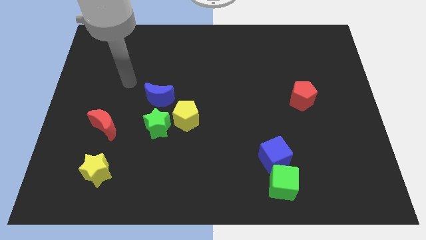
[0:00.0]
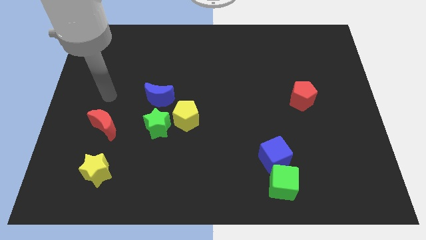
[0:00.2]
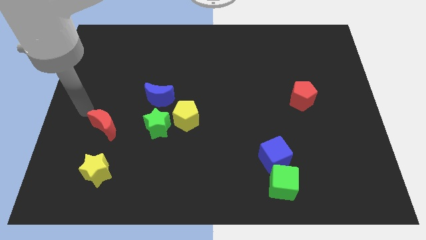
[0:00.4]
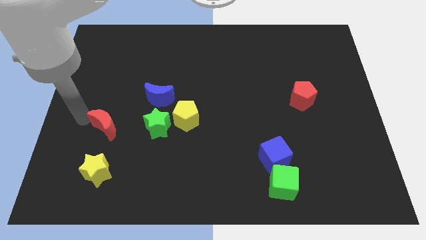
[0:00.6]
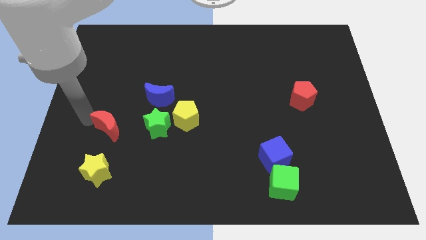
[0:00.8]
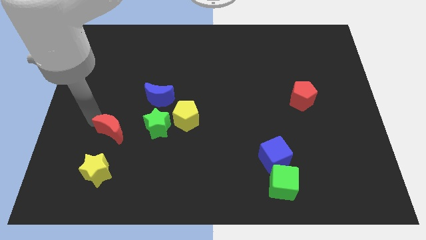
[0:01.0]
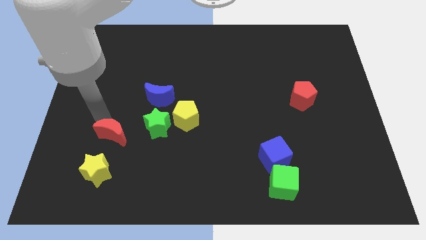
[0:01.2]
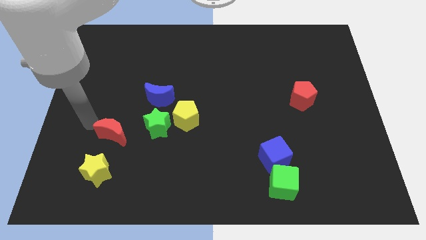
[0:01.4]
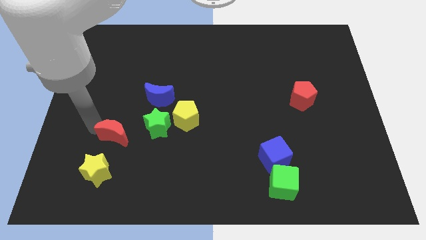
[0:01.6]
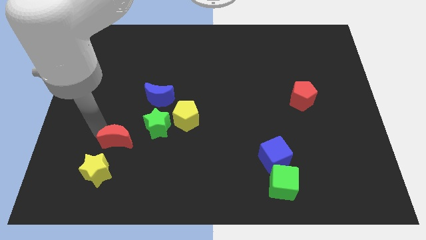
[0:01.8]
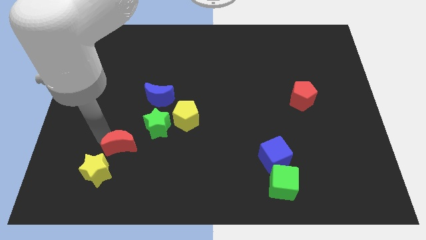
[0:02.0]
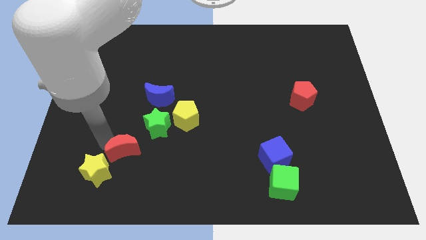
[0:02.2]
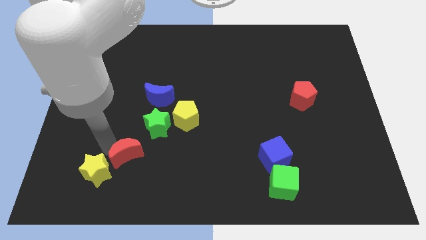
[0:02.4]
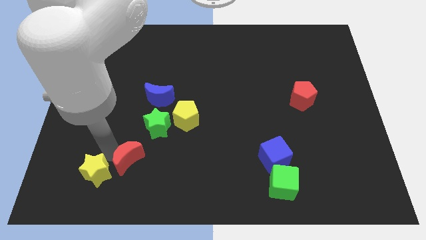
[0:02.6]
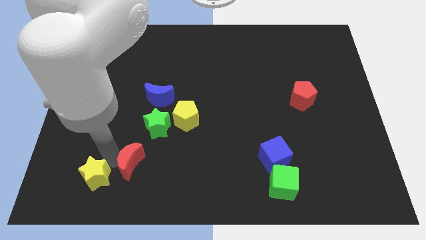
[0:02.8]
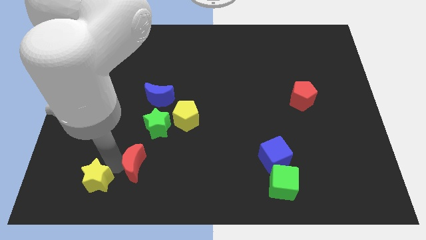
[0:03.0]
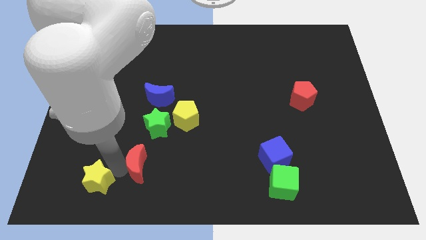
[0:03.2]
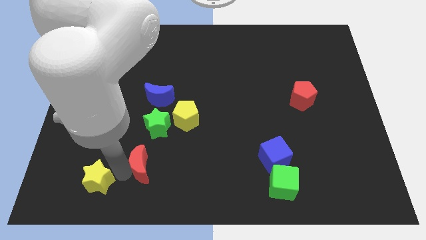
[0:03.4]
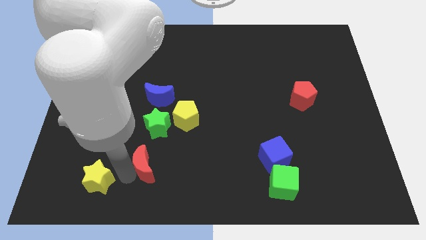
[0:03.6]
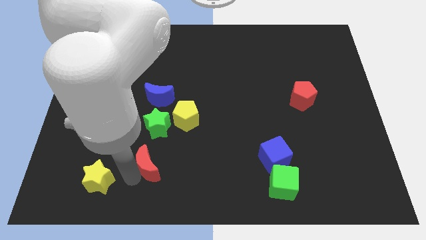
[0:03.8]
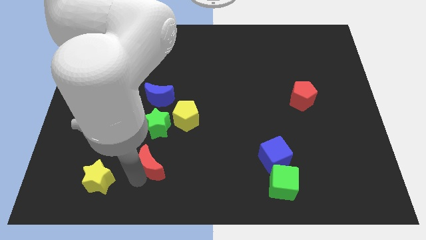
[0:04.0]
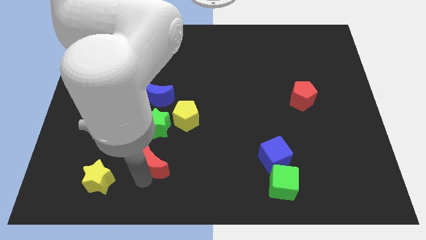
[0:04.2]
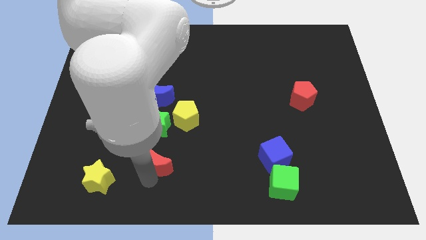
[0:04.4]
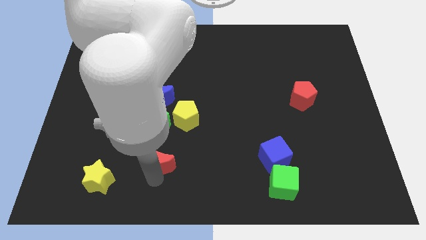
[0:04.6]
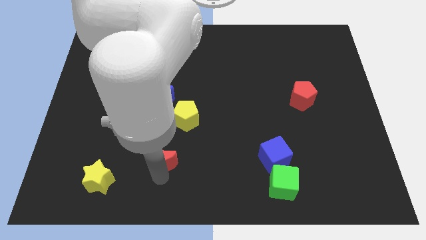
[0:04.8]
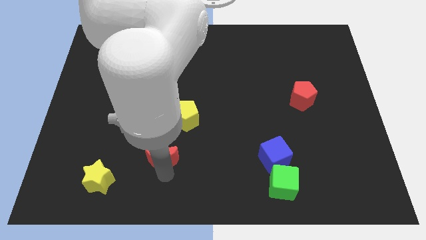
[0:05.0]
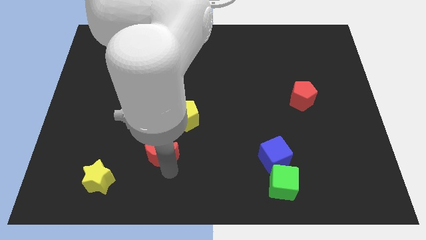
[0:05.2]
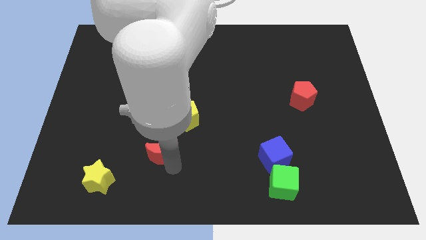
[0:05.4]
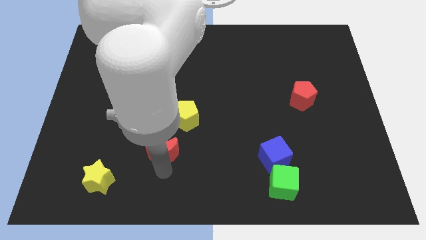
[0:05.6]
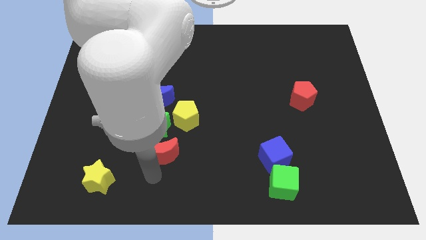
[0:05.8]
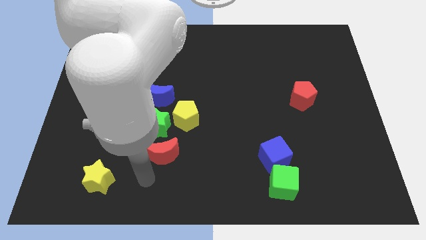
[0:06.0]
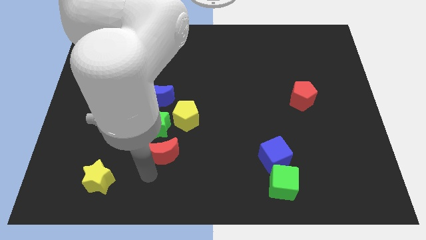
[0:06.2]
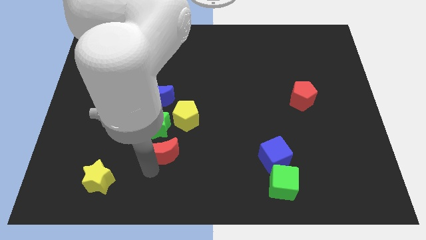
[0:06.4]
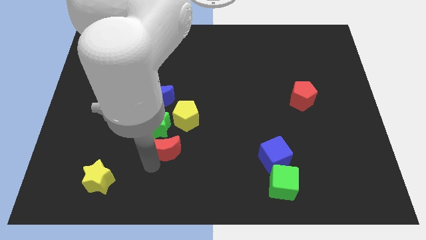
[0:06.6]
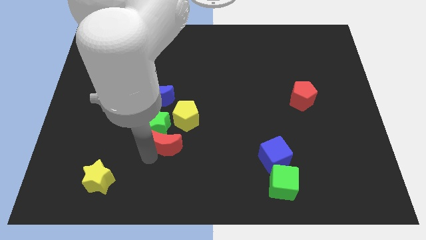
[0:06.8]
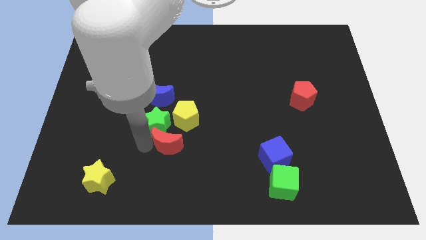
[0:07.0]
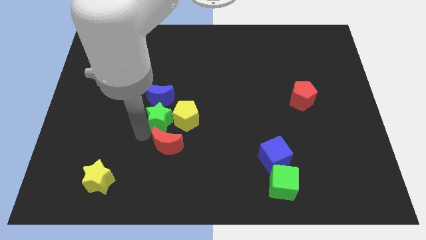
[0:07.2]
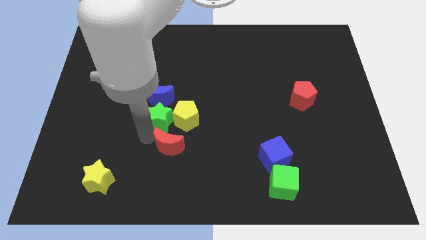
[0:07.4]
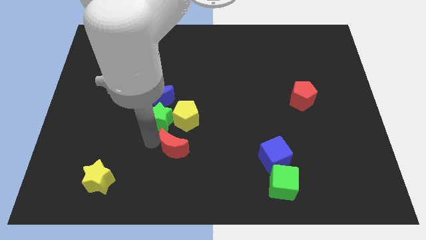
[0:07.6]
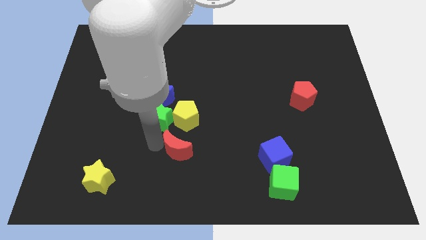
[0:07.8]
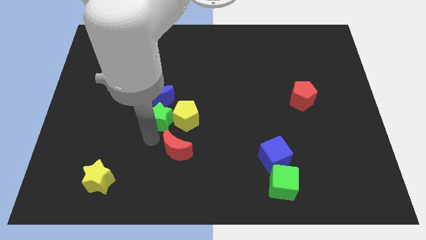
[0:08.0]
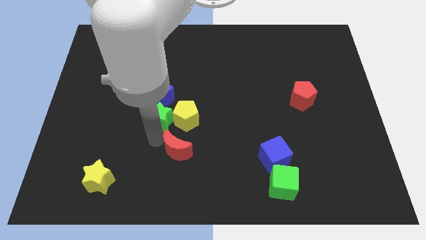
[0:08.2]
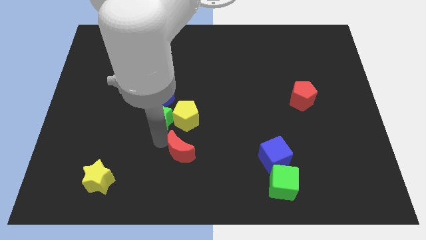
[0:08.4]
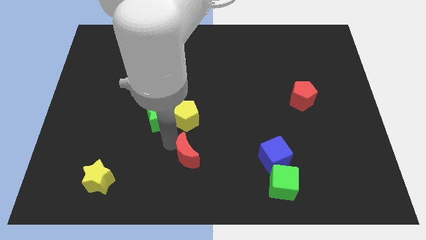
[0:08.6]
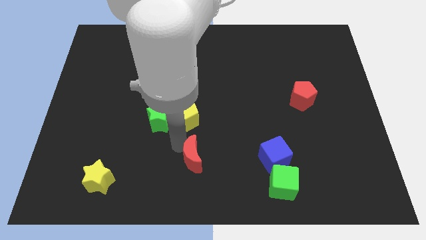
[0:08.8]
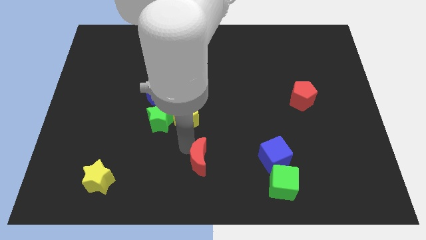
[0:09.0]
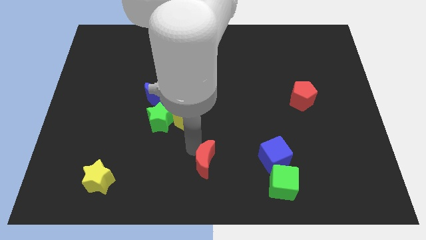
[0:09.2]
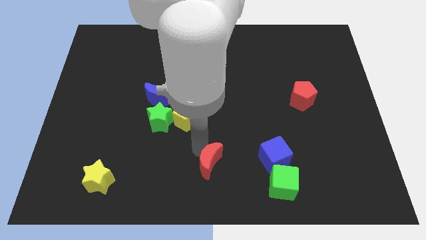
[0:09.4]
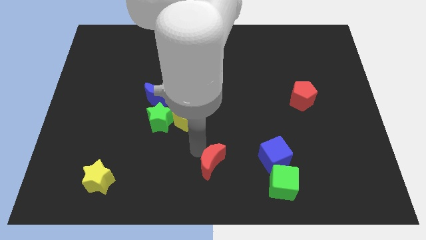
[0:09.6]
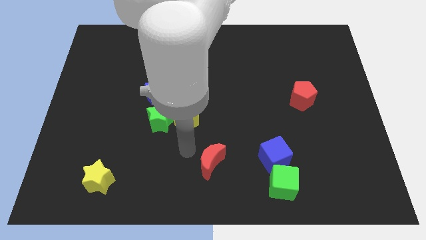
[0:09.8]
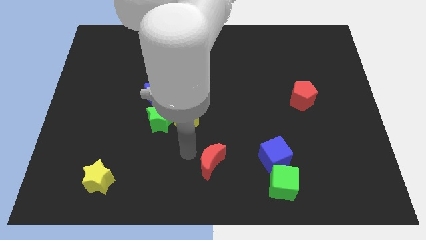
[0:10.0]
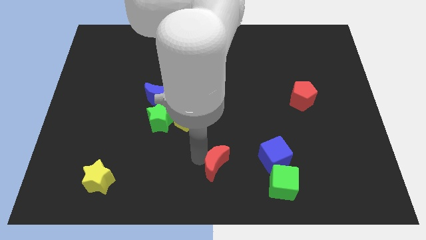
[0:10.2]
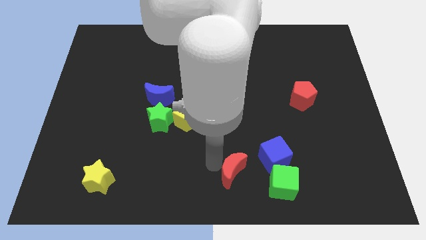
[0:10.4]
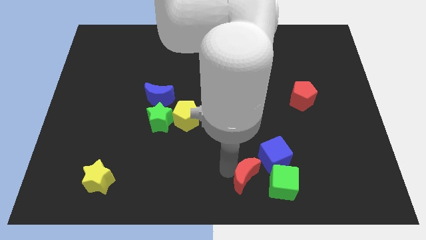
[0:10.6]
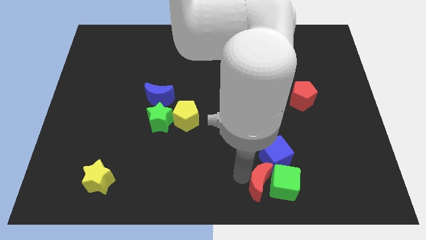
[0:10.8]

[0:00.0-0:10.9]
put the red moon to the green cube

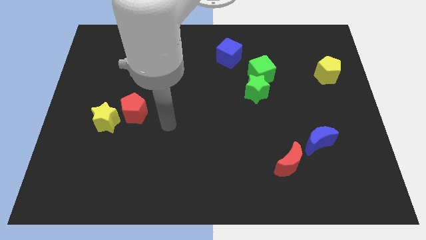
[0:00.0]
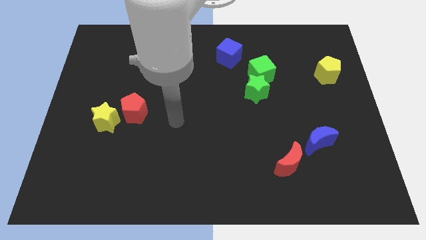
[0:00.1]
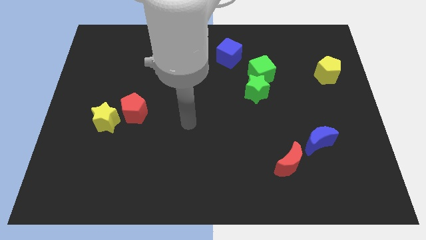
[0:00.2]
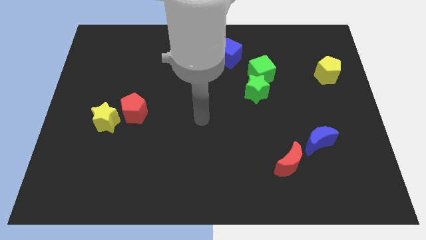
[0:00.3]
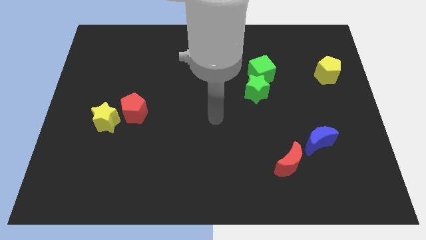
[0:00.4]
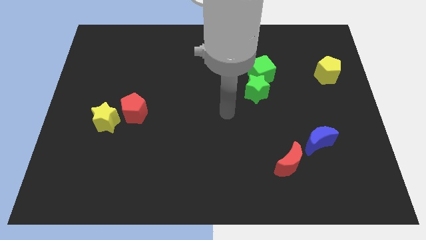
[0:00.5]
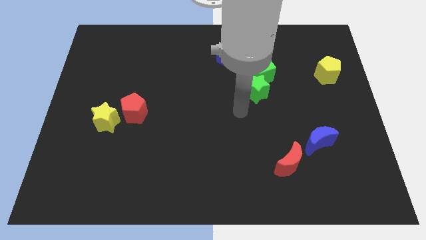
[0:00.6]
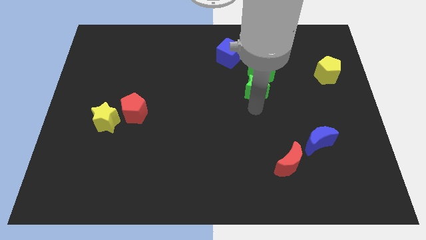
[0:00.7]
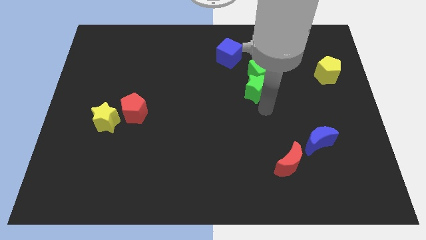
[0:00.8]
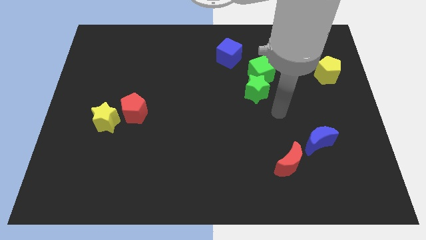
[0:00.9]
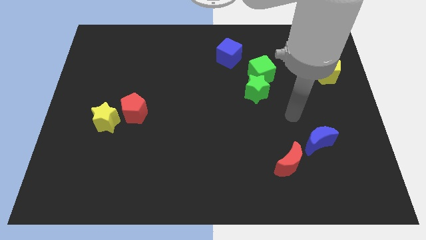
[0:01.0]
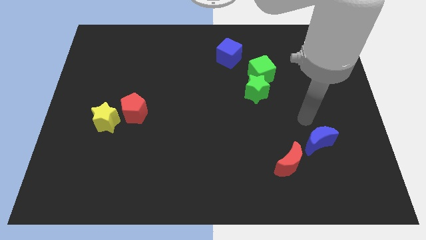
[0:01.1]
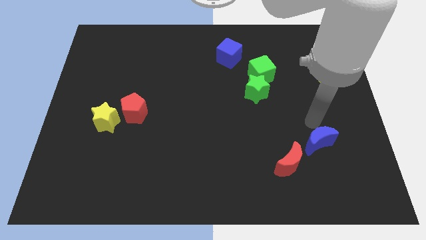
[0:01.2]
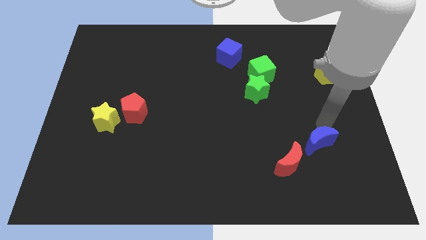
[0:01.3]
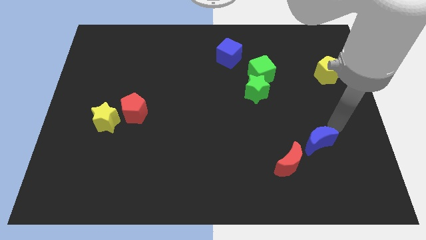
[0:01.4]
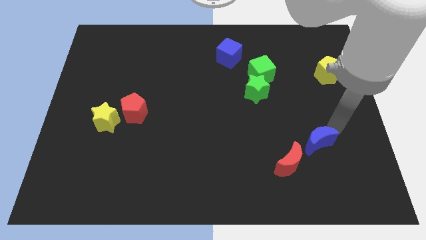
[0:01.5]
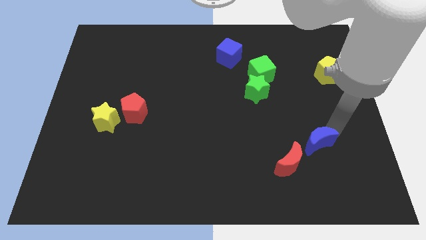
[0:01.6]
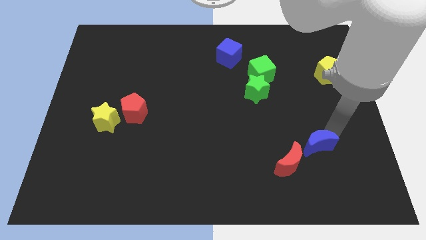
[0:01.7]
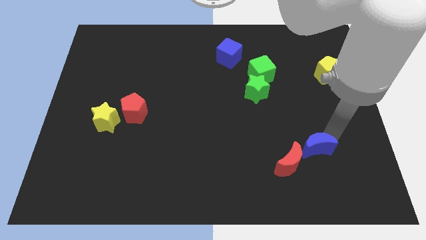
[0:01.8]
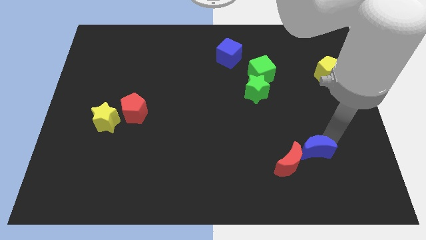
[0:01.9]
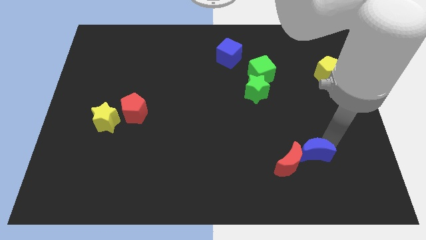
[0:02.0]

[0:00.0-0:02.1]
slide the blue moon next to the red moon
